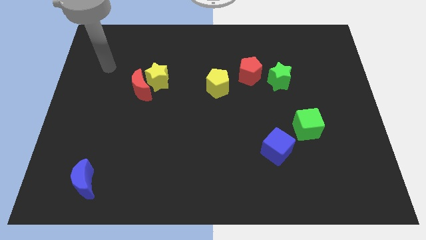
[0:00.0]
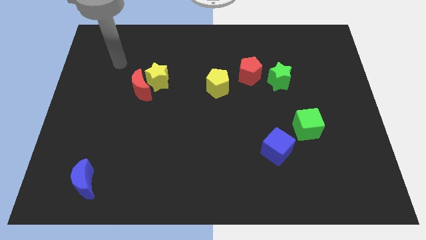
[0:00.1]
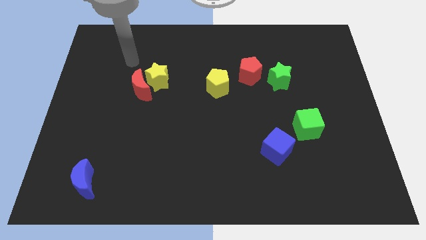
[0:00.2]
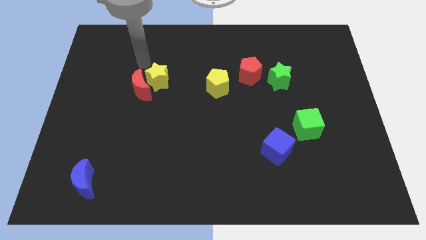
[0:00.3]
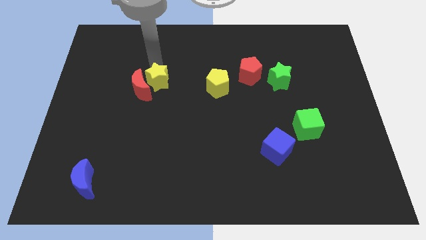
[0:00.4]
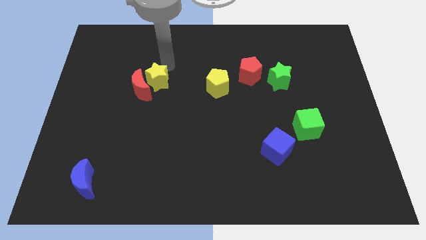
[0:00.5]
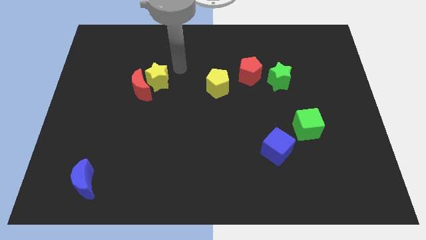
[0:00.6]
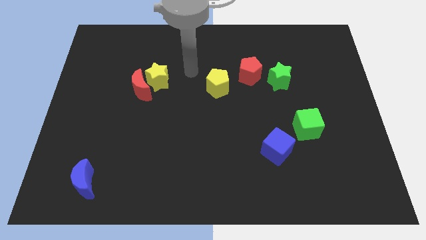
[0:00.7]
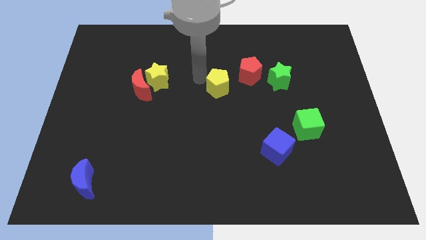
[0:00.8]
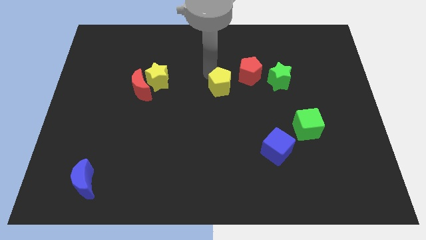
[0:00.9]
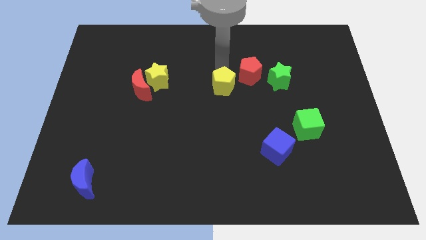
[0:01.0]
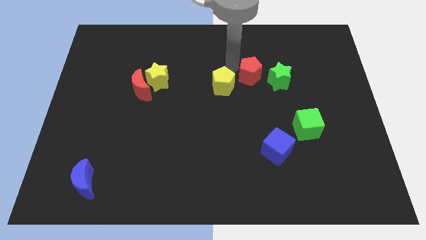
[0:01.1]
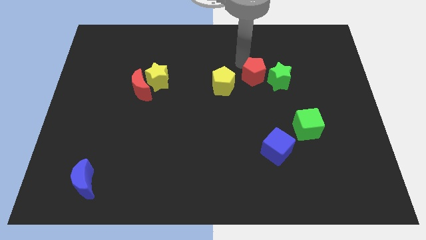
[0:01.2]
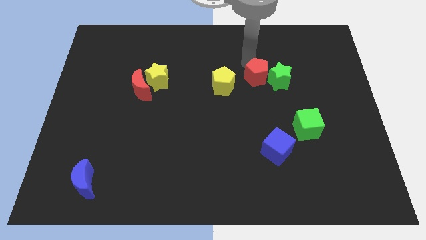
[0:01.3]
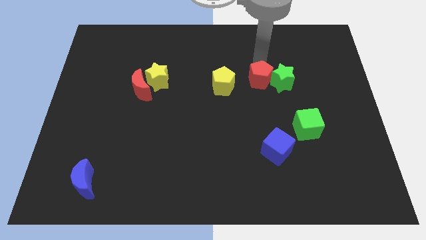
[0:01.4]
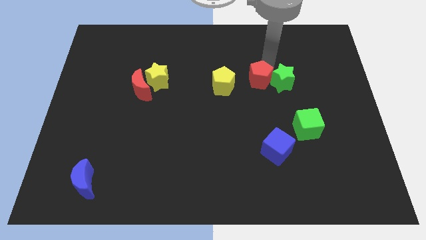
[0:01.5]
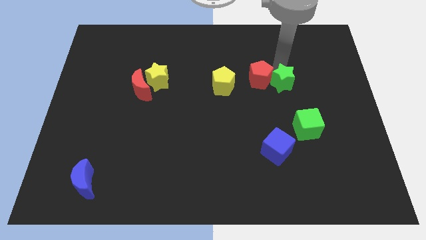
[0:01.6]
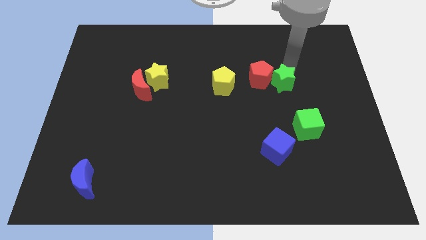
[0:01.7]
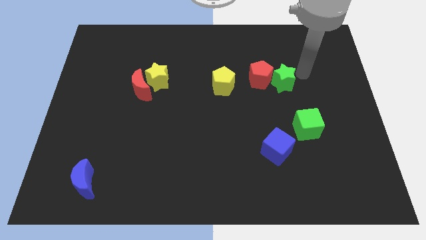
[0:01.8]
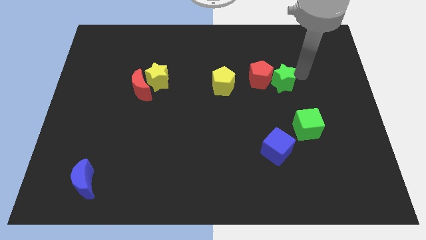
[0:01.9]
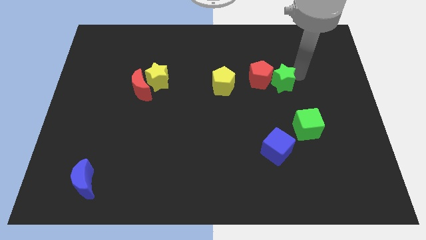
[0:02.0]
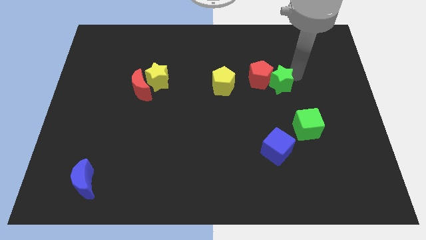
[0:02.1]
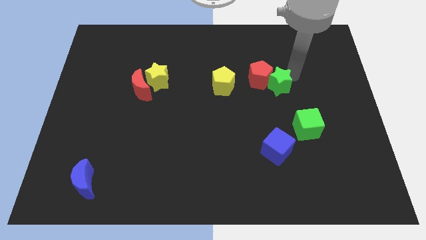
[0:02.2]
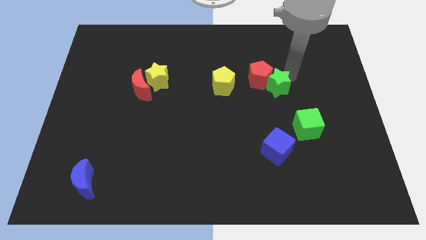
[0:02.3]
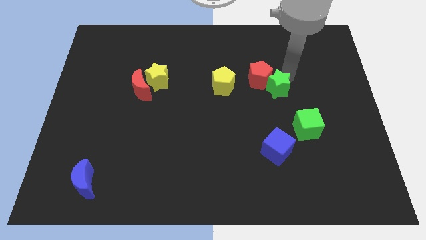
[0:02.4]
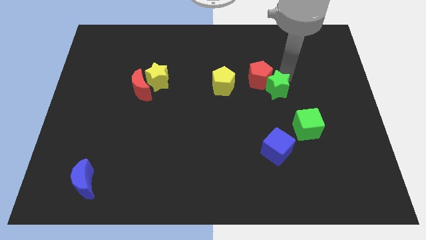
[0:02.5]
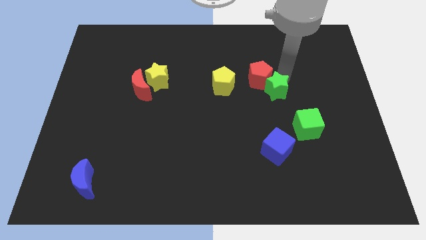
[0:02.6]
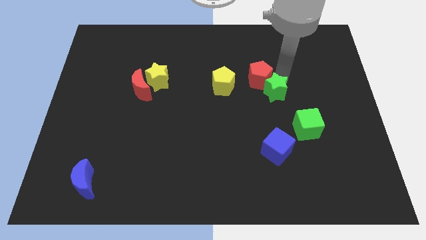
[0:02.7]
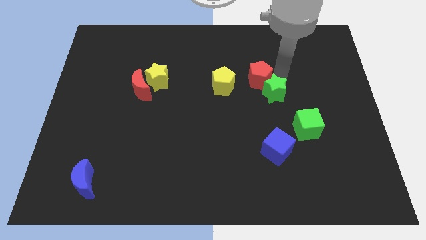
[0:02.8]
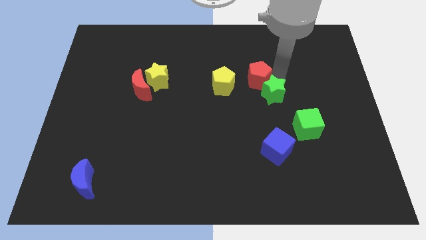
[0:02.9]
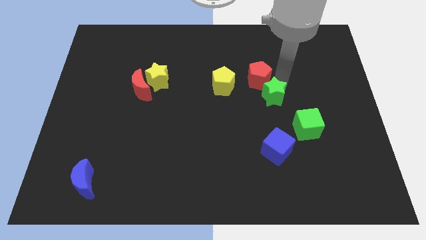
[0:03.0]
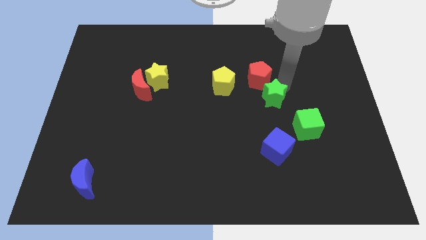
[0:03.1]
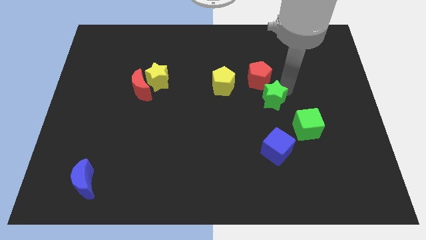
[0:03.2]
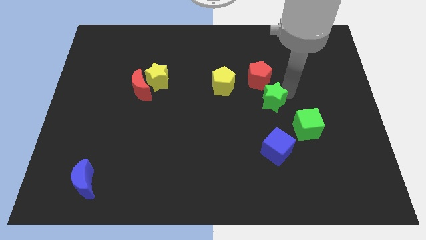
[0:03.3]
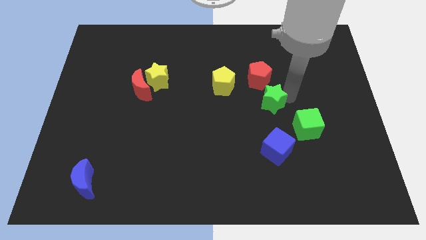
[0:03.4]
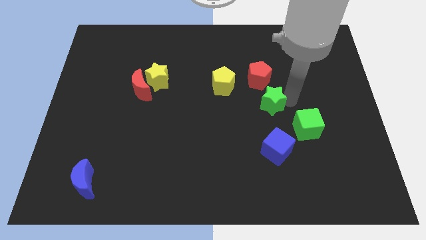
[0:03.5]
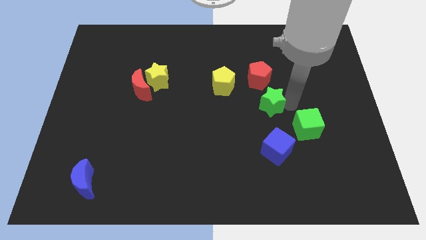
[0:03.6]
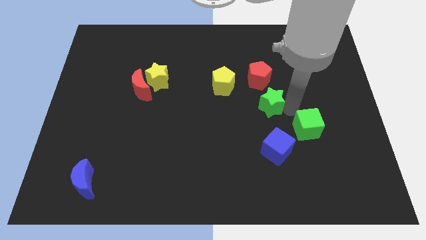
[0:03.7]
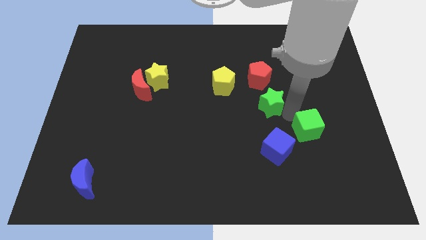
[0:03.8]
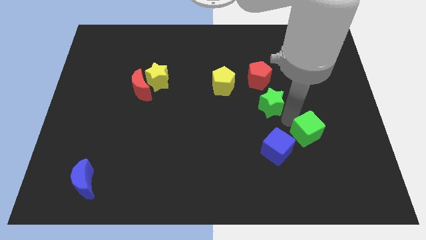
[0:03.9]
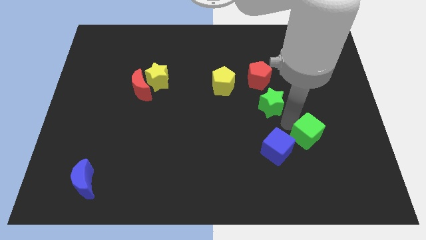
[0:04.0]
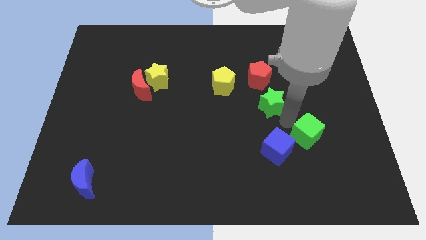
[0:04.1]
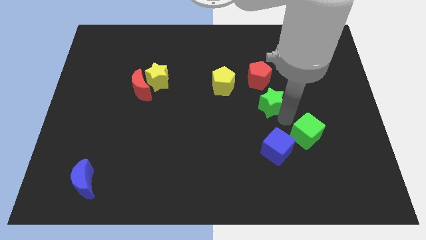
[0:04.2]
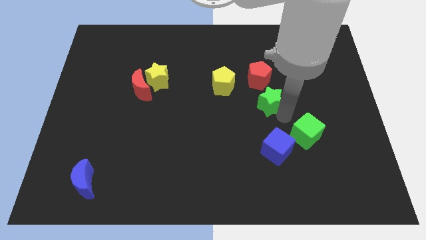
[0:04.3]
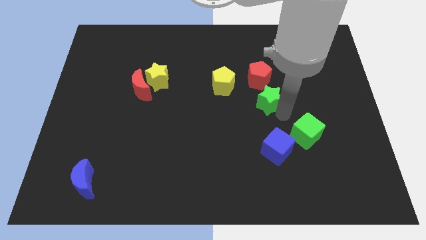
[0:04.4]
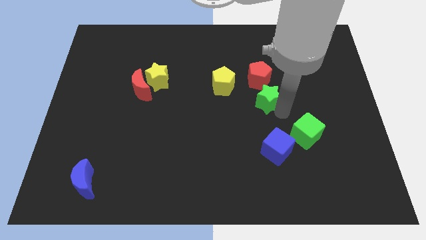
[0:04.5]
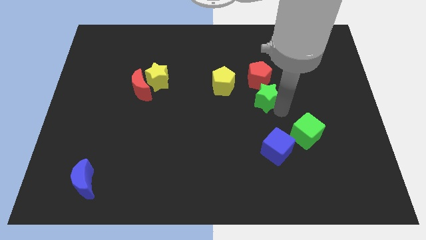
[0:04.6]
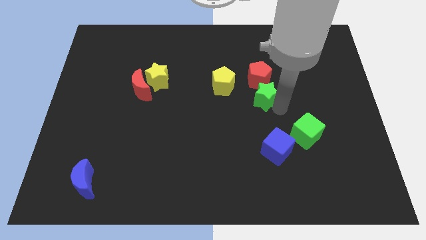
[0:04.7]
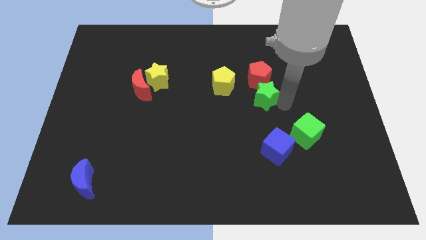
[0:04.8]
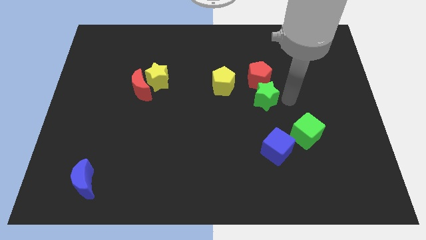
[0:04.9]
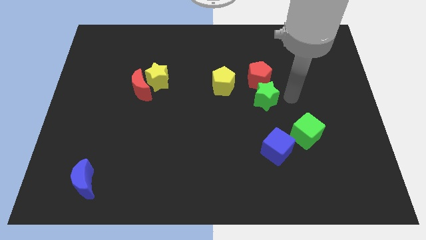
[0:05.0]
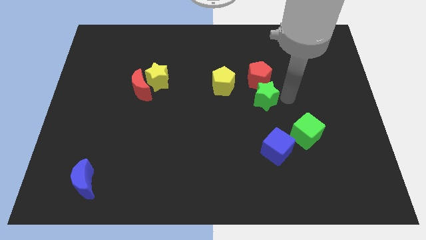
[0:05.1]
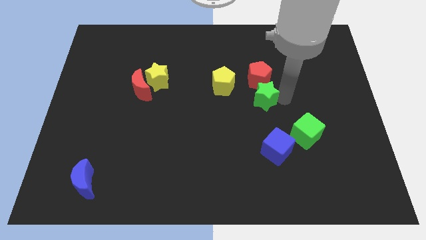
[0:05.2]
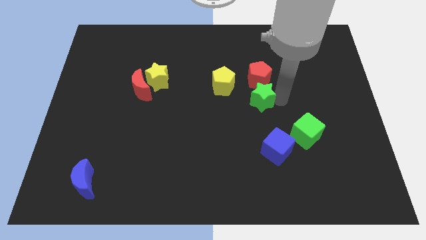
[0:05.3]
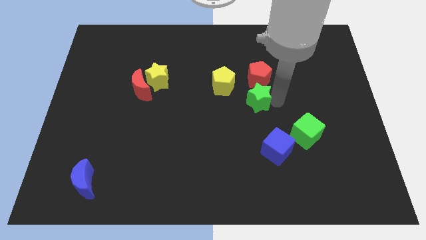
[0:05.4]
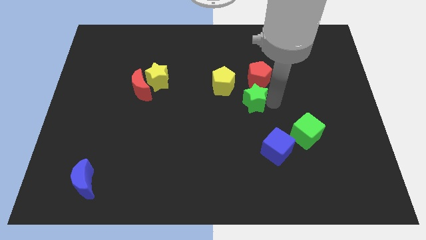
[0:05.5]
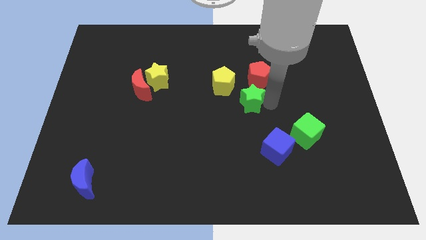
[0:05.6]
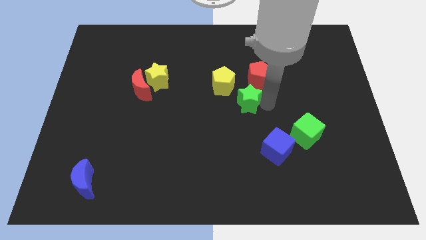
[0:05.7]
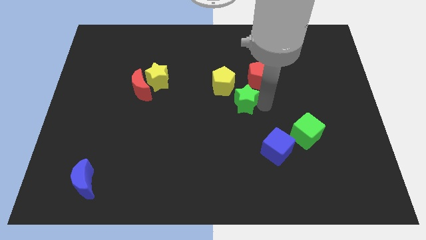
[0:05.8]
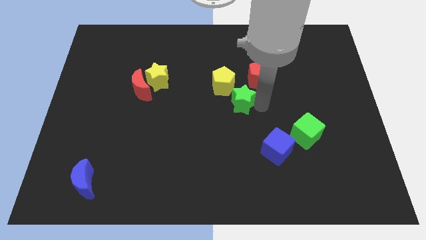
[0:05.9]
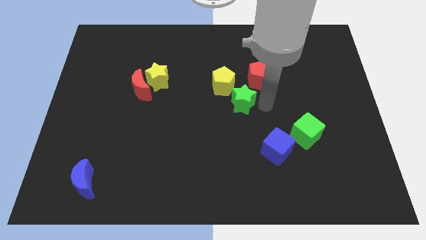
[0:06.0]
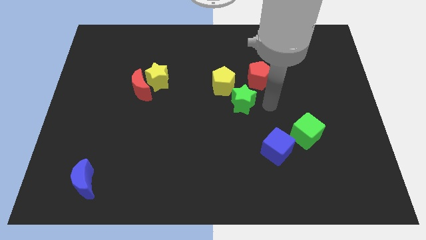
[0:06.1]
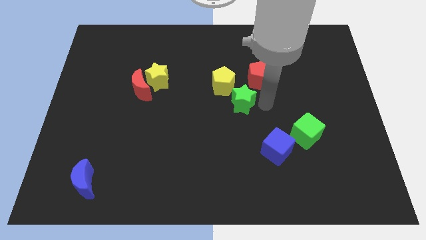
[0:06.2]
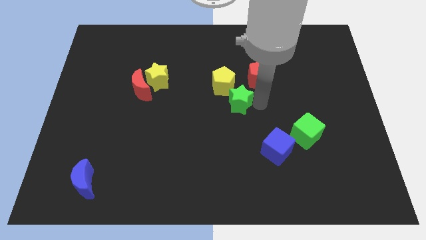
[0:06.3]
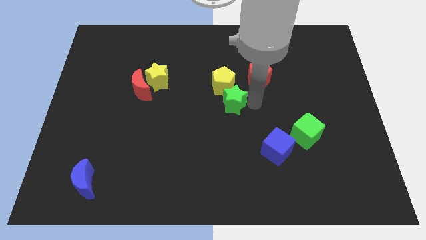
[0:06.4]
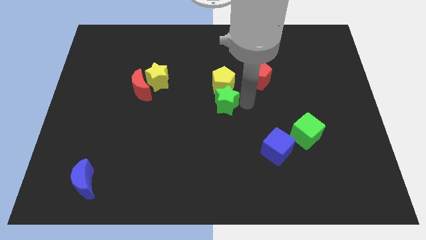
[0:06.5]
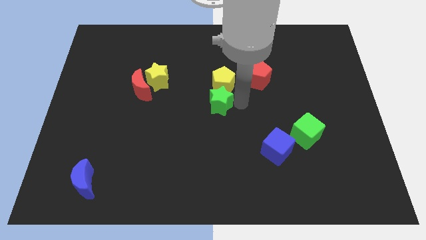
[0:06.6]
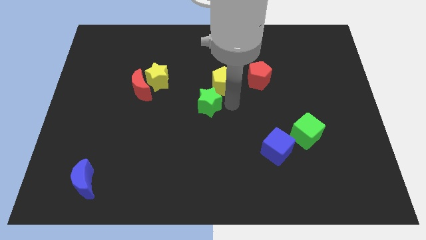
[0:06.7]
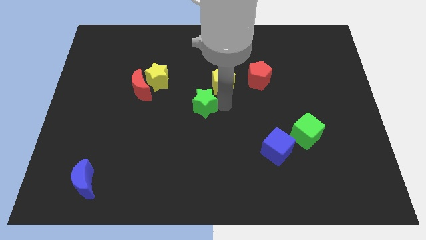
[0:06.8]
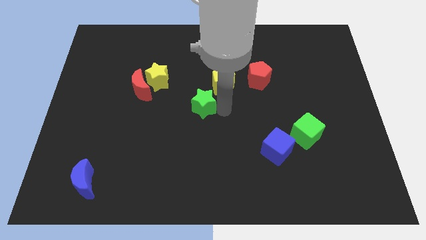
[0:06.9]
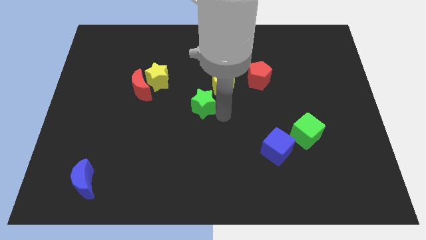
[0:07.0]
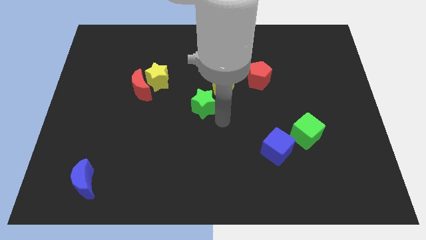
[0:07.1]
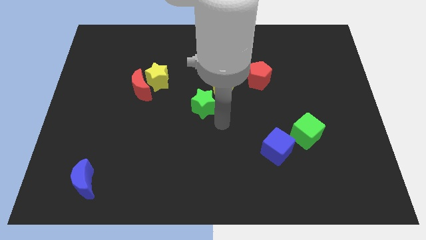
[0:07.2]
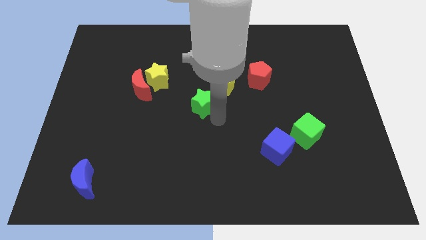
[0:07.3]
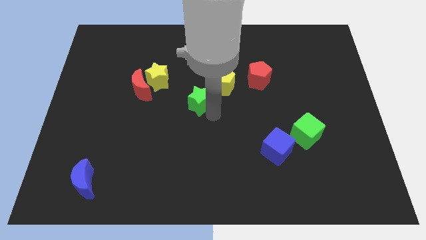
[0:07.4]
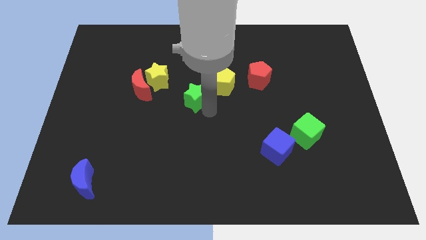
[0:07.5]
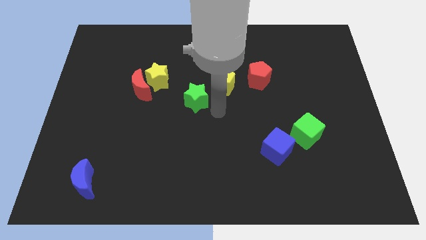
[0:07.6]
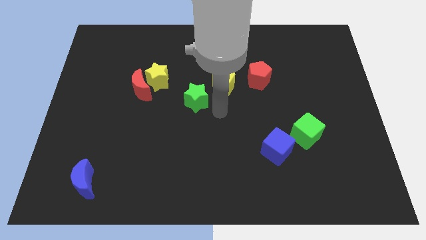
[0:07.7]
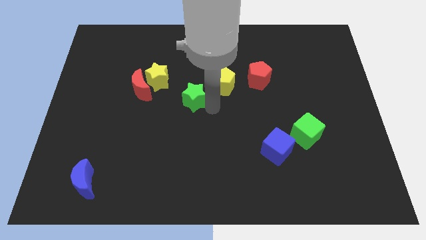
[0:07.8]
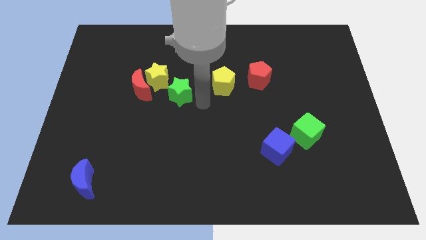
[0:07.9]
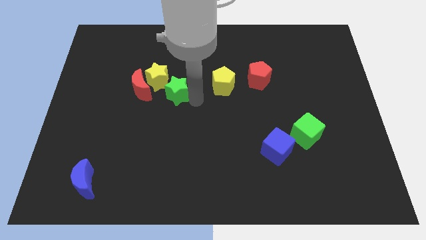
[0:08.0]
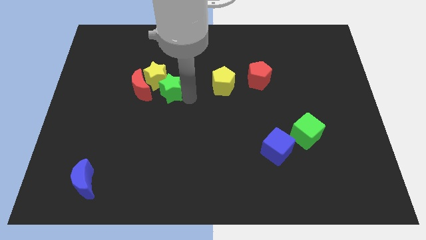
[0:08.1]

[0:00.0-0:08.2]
slide the green star to the yellow star

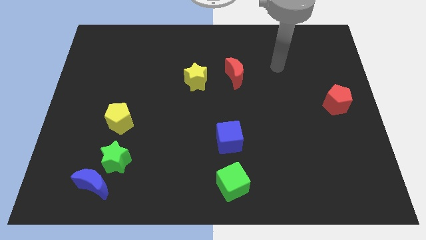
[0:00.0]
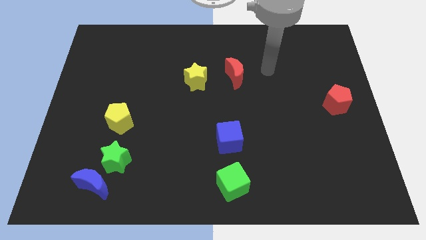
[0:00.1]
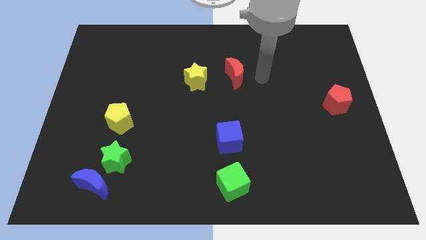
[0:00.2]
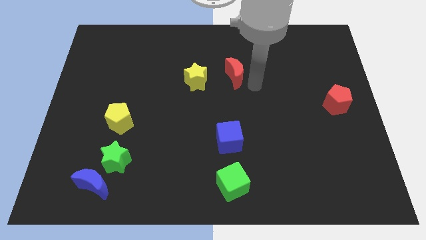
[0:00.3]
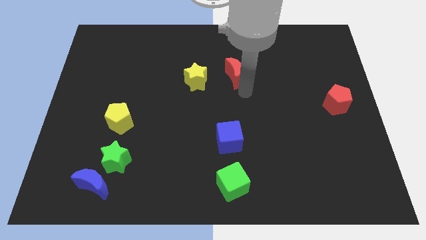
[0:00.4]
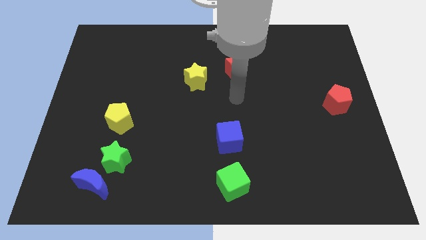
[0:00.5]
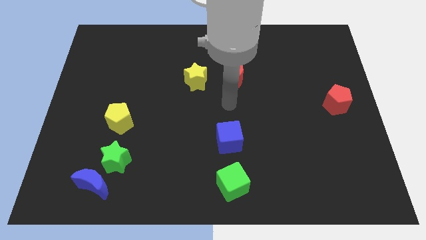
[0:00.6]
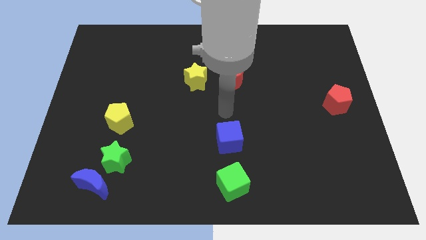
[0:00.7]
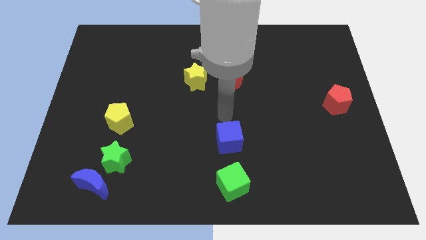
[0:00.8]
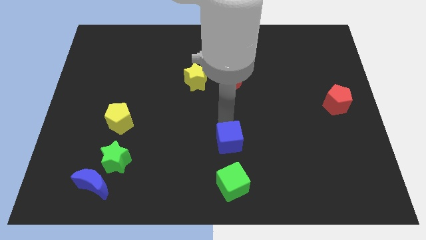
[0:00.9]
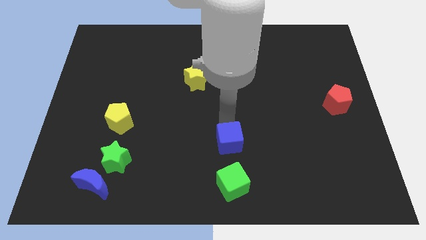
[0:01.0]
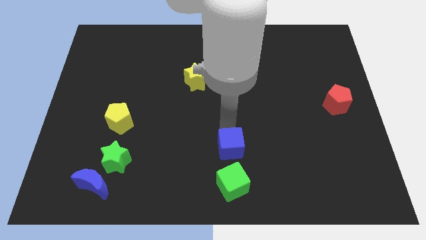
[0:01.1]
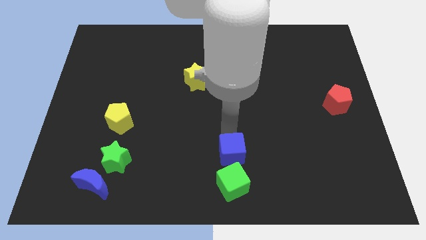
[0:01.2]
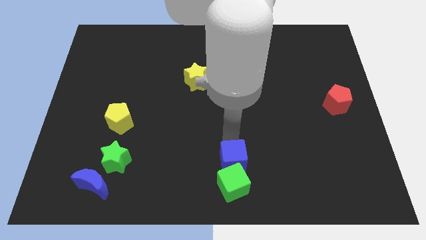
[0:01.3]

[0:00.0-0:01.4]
slide the blue cube next to the green cube
